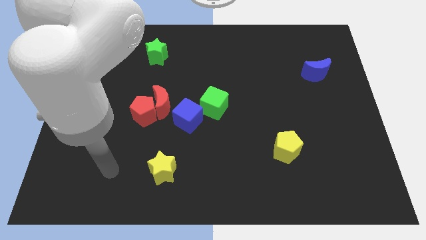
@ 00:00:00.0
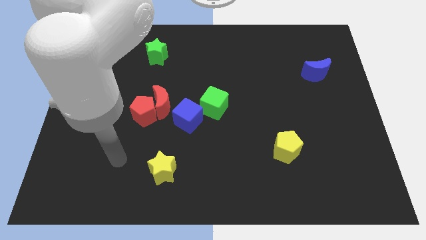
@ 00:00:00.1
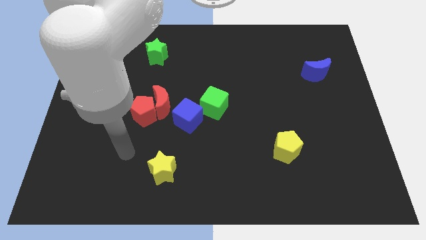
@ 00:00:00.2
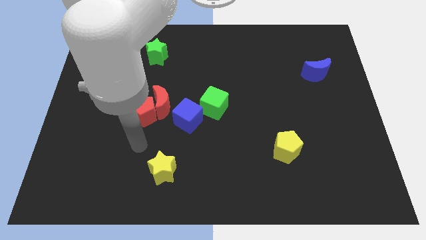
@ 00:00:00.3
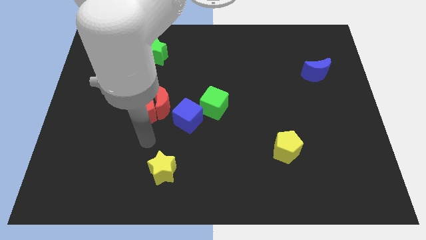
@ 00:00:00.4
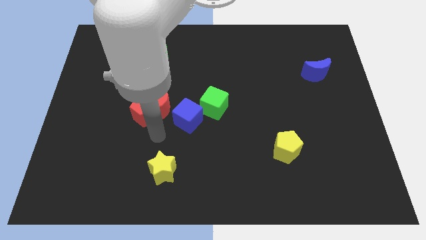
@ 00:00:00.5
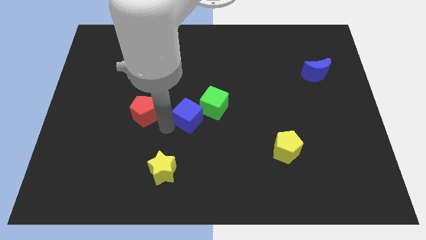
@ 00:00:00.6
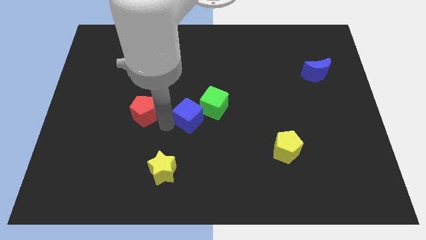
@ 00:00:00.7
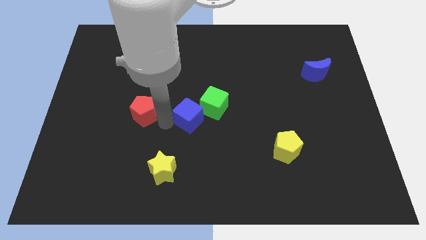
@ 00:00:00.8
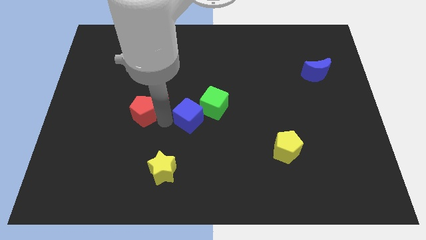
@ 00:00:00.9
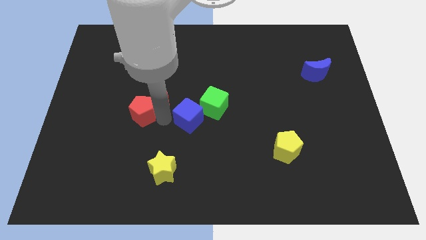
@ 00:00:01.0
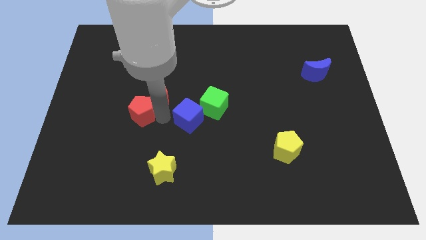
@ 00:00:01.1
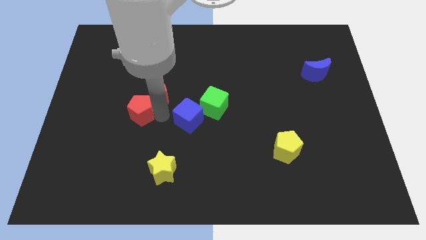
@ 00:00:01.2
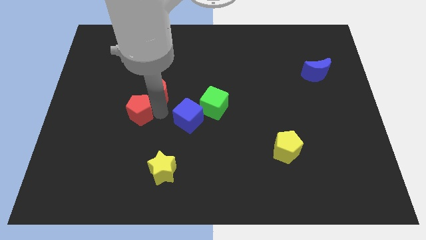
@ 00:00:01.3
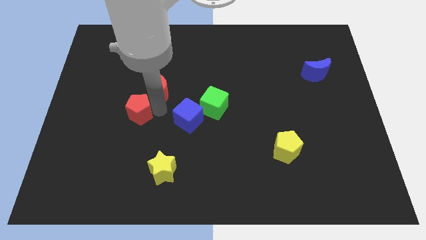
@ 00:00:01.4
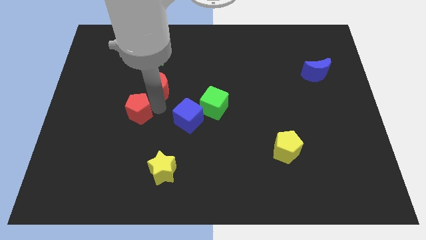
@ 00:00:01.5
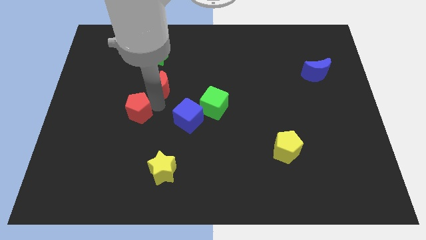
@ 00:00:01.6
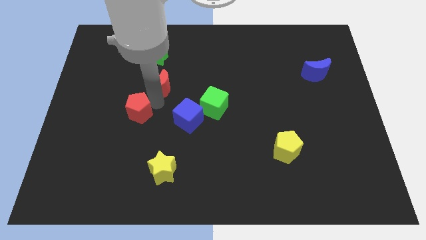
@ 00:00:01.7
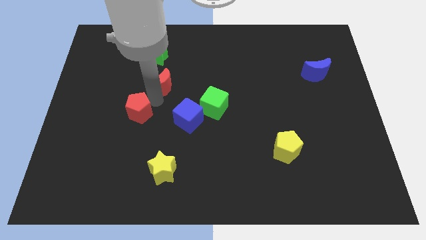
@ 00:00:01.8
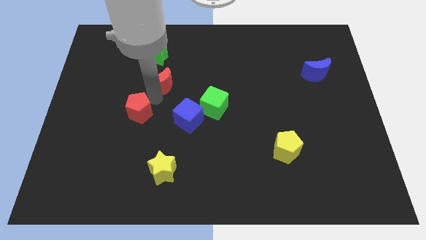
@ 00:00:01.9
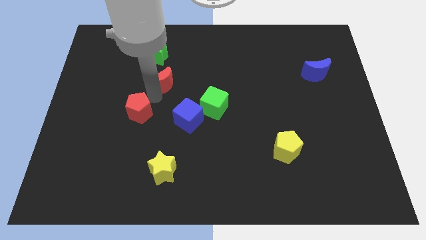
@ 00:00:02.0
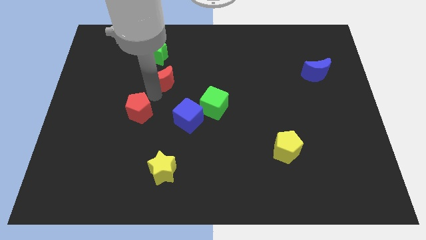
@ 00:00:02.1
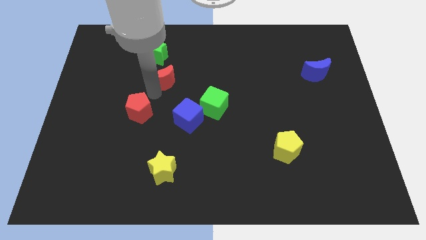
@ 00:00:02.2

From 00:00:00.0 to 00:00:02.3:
move the red moon away from the red pentagon and blue cube

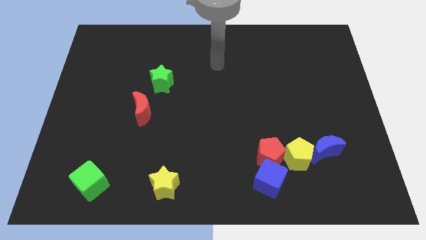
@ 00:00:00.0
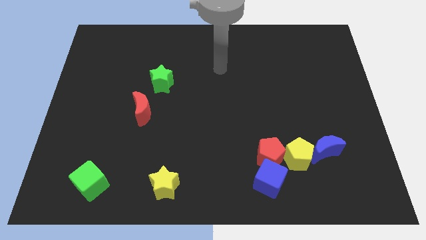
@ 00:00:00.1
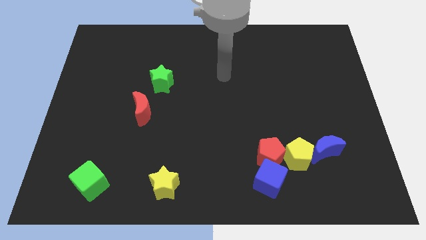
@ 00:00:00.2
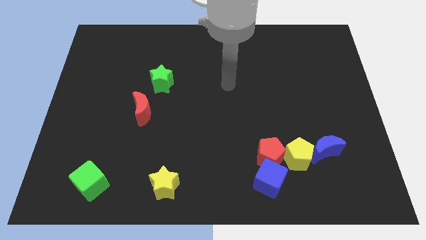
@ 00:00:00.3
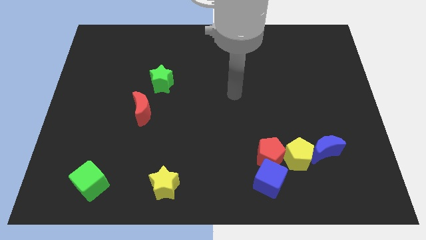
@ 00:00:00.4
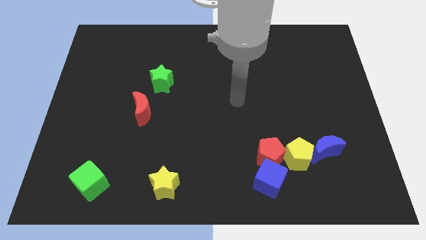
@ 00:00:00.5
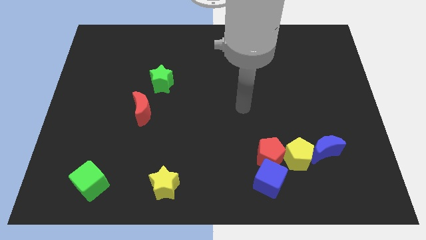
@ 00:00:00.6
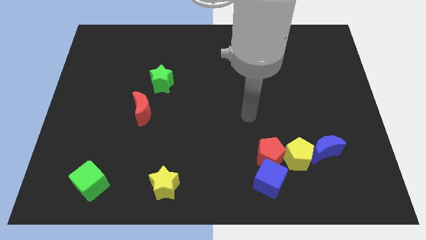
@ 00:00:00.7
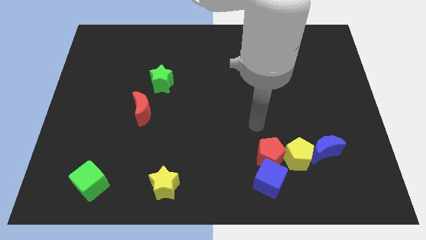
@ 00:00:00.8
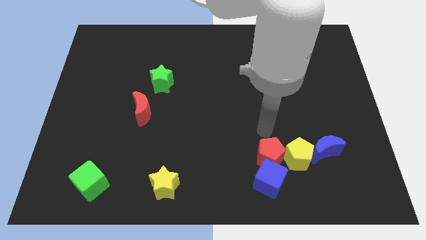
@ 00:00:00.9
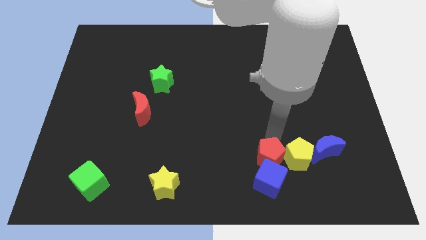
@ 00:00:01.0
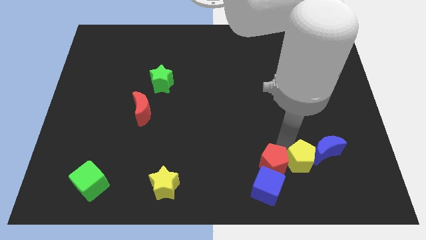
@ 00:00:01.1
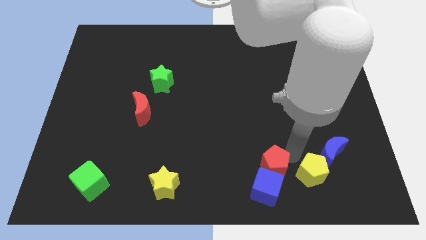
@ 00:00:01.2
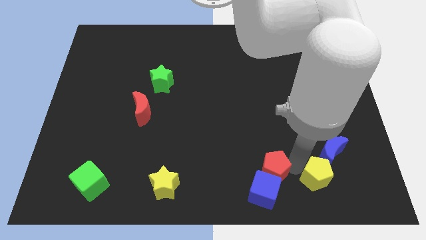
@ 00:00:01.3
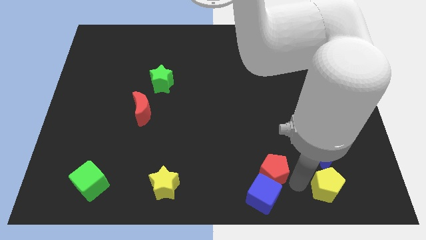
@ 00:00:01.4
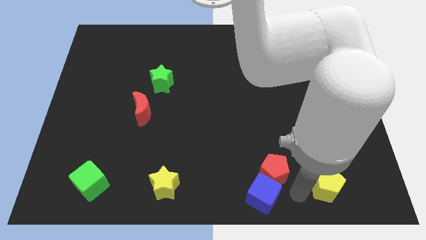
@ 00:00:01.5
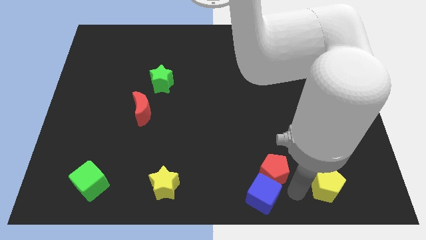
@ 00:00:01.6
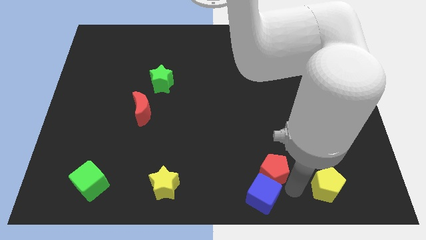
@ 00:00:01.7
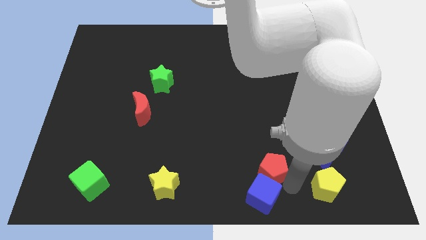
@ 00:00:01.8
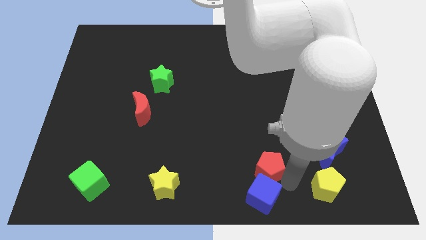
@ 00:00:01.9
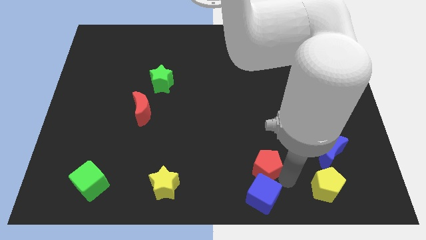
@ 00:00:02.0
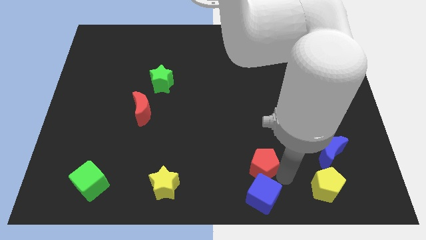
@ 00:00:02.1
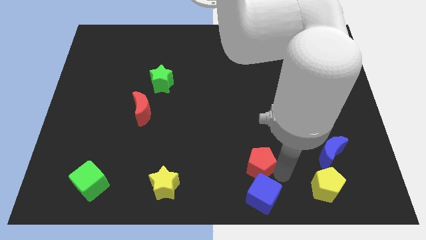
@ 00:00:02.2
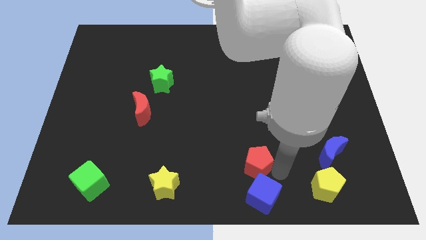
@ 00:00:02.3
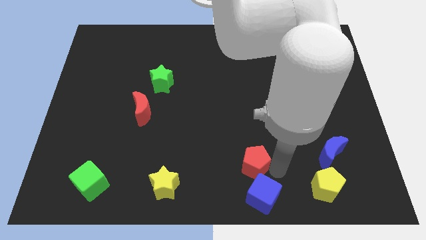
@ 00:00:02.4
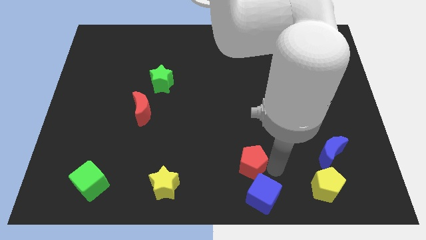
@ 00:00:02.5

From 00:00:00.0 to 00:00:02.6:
move the red pentagon away from the blue cube and yellow pentagon

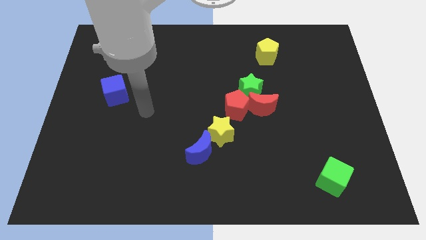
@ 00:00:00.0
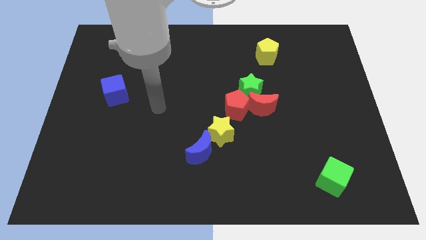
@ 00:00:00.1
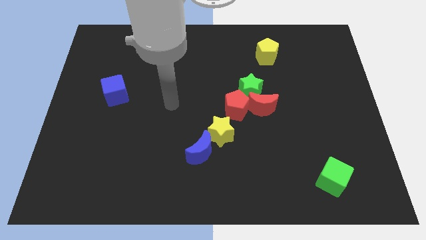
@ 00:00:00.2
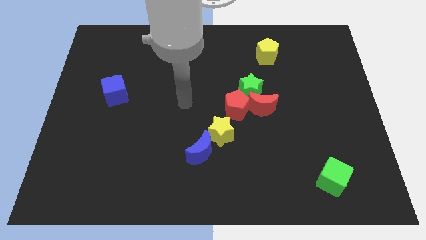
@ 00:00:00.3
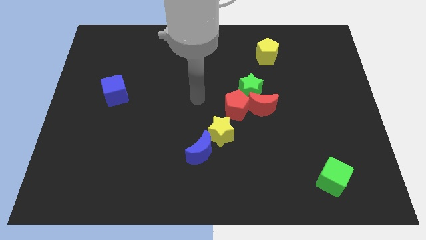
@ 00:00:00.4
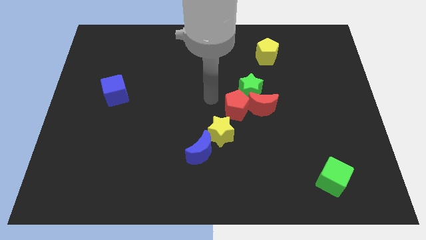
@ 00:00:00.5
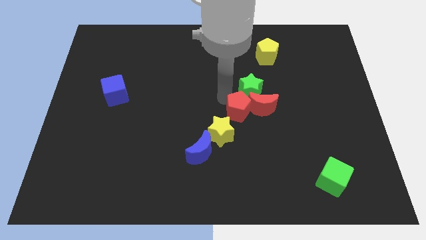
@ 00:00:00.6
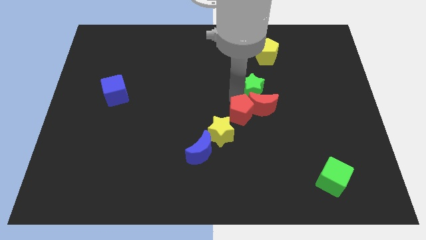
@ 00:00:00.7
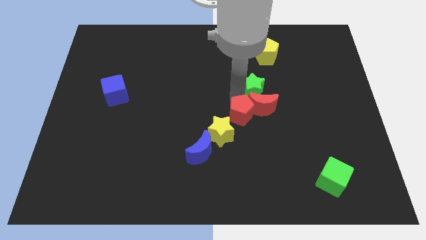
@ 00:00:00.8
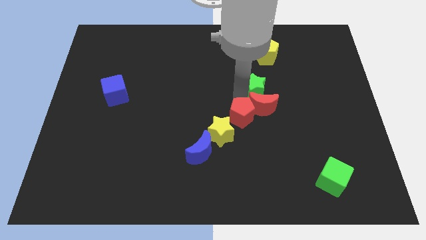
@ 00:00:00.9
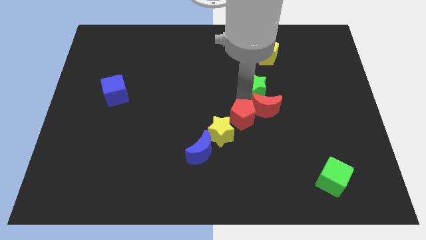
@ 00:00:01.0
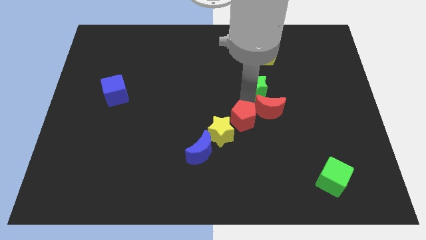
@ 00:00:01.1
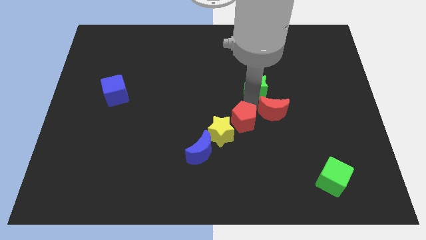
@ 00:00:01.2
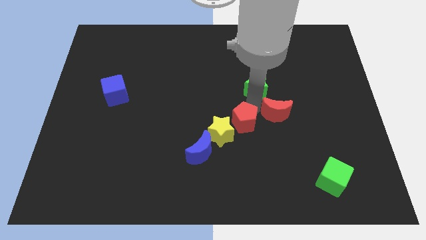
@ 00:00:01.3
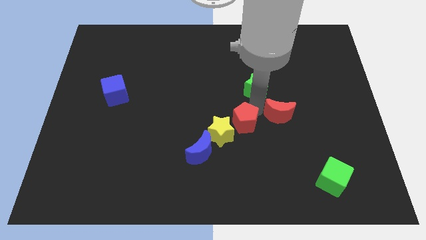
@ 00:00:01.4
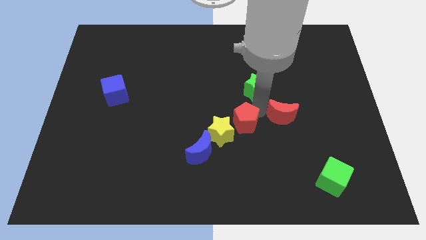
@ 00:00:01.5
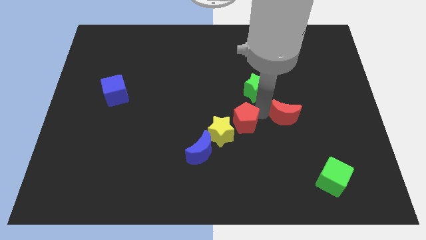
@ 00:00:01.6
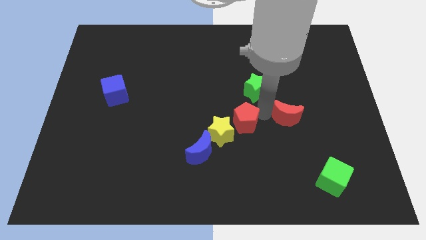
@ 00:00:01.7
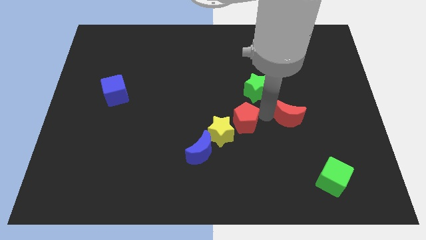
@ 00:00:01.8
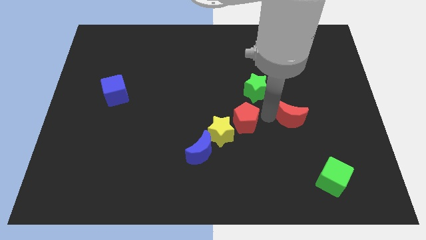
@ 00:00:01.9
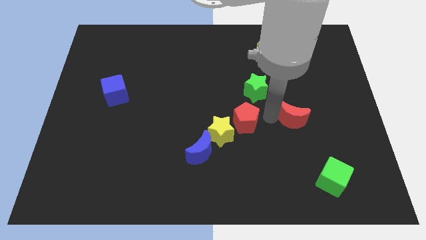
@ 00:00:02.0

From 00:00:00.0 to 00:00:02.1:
pull the red moon apart from the green star and red pentagon

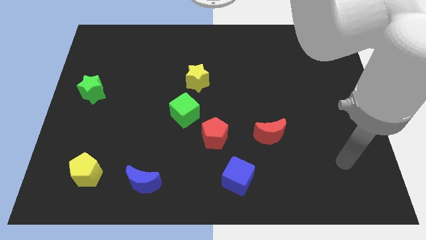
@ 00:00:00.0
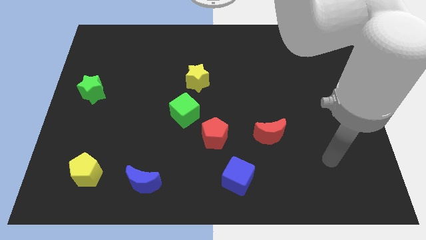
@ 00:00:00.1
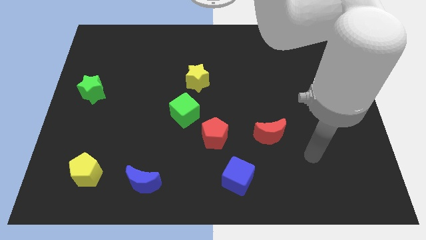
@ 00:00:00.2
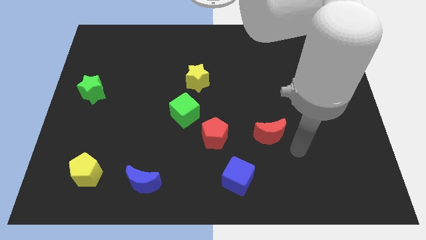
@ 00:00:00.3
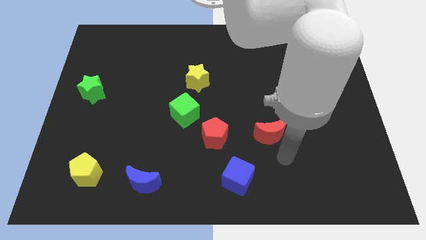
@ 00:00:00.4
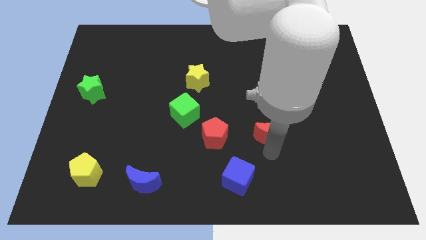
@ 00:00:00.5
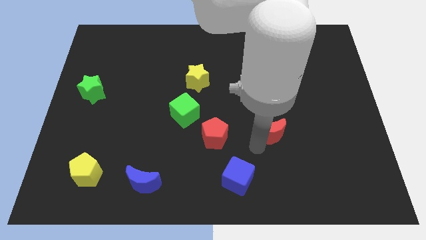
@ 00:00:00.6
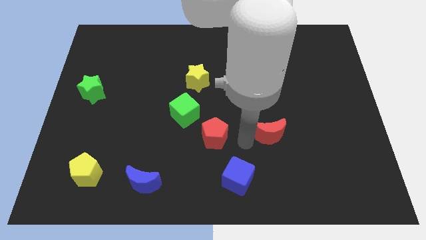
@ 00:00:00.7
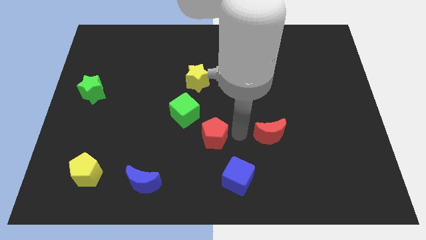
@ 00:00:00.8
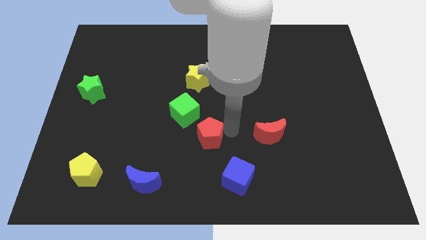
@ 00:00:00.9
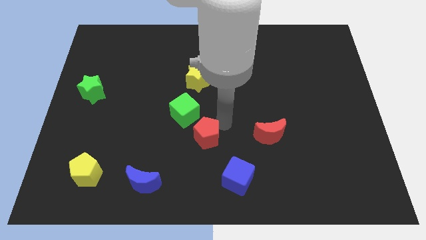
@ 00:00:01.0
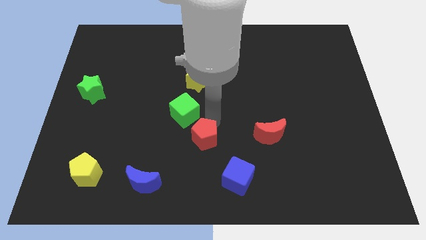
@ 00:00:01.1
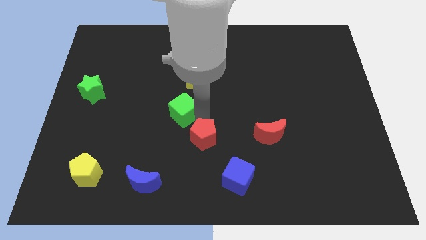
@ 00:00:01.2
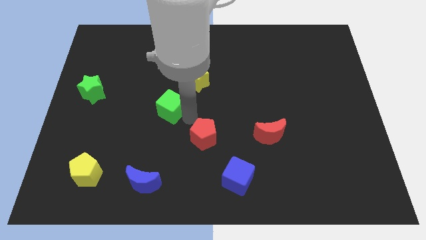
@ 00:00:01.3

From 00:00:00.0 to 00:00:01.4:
move the red pentagon away from the green cube

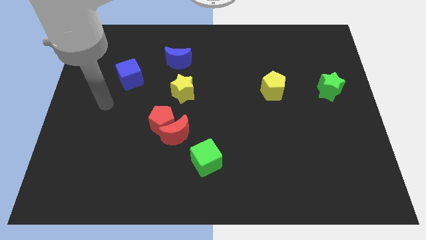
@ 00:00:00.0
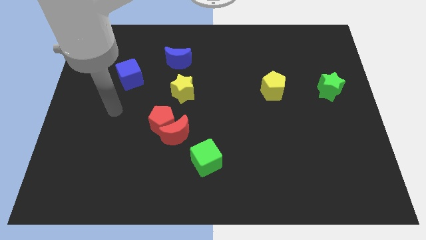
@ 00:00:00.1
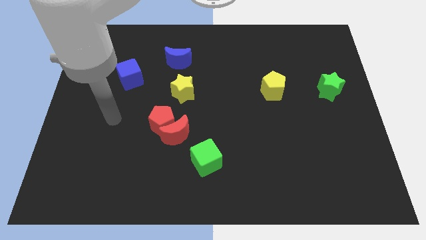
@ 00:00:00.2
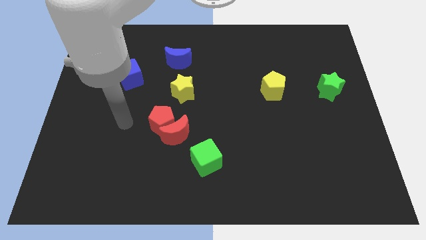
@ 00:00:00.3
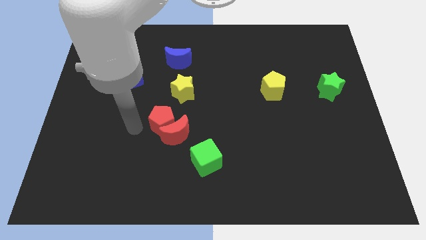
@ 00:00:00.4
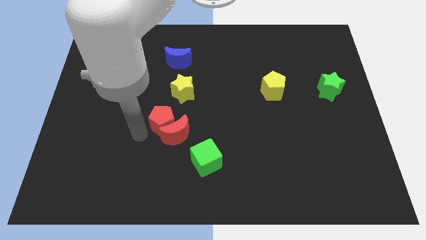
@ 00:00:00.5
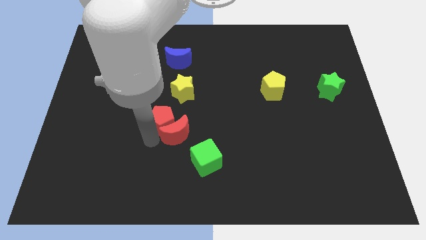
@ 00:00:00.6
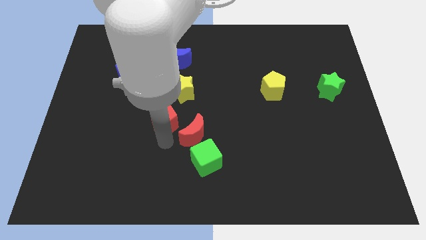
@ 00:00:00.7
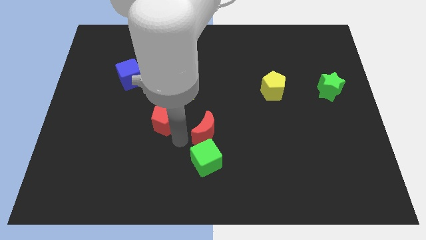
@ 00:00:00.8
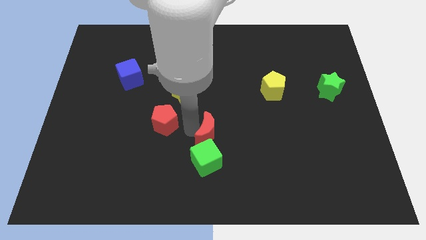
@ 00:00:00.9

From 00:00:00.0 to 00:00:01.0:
separate the red pentagon from the red moon
